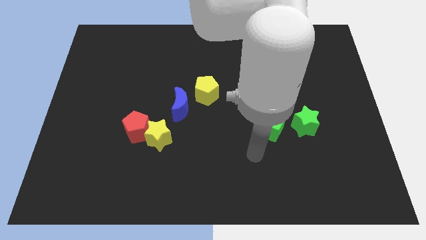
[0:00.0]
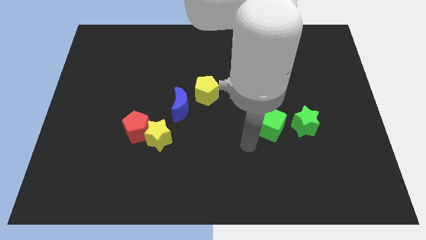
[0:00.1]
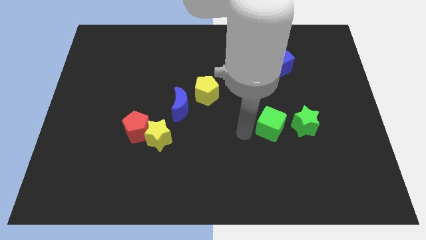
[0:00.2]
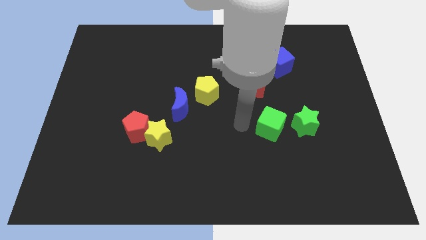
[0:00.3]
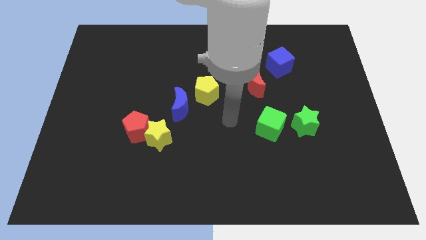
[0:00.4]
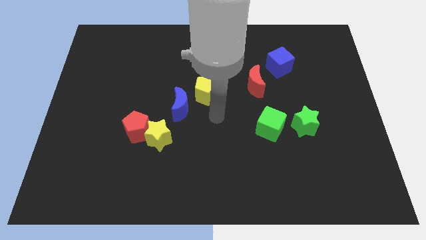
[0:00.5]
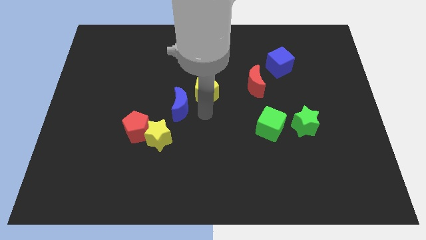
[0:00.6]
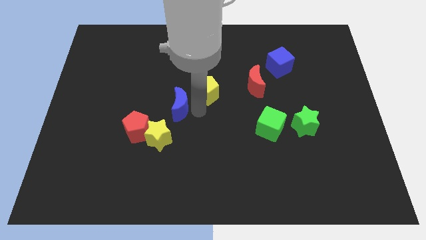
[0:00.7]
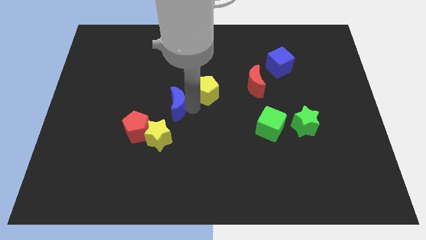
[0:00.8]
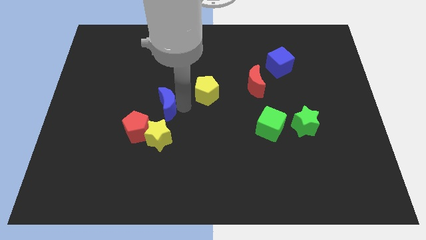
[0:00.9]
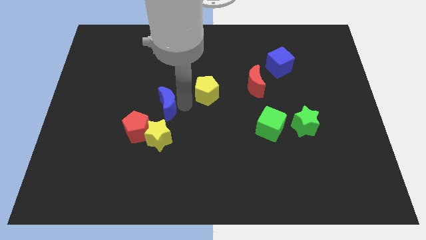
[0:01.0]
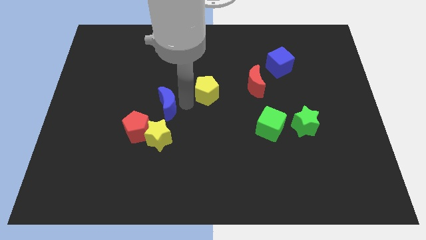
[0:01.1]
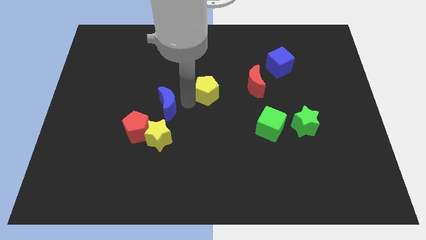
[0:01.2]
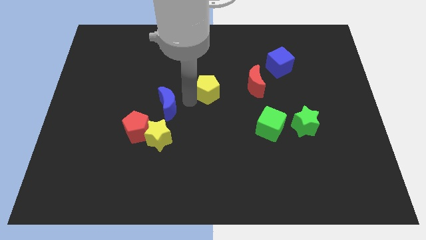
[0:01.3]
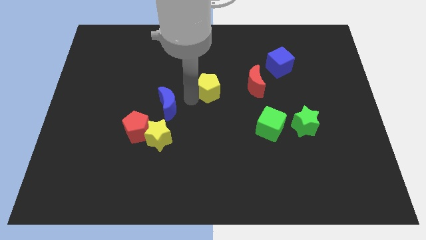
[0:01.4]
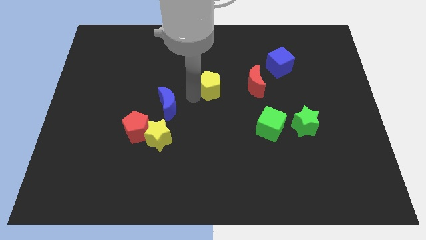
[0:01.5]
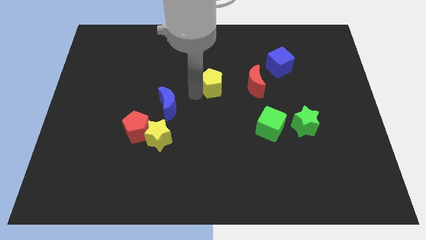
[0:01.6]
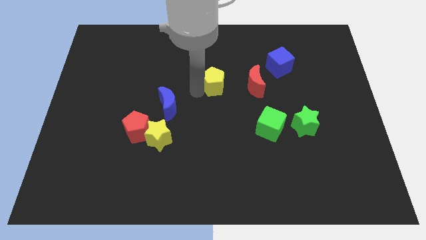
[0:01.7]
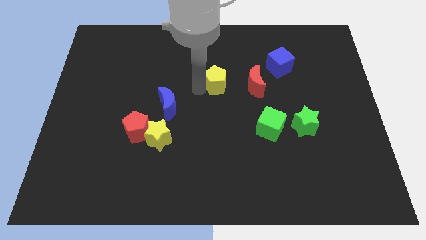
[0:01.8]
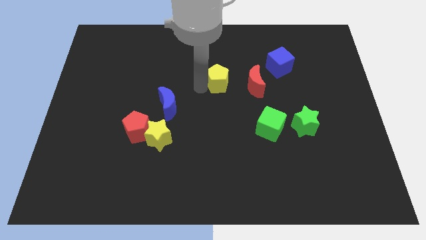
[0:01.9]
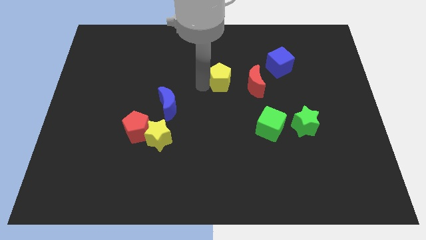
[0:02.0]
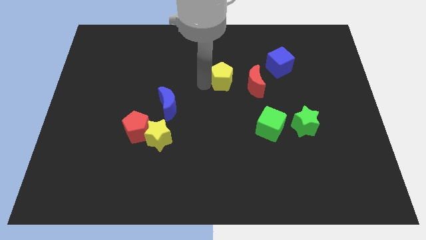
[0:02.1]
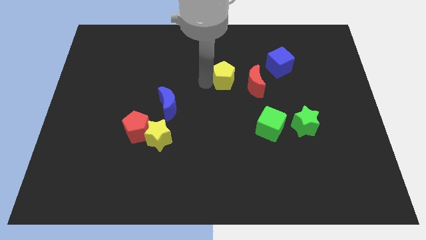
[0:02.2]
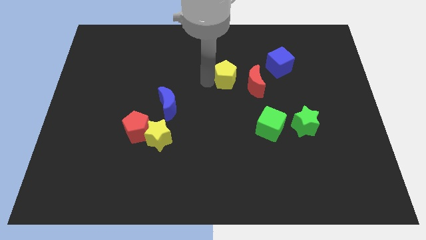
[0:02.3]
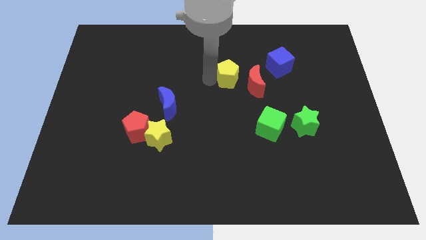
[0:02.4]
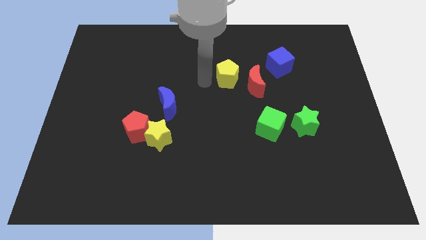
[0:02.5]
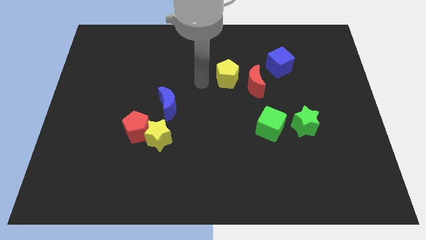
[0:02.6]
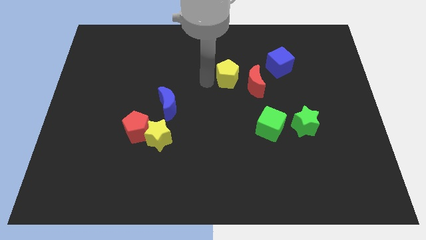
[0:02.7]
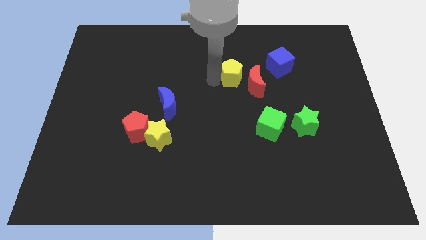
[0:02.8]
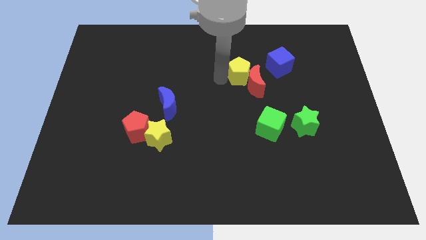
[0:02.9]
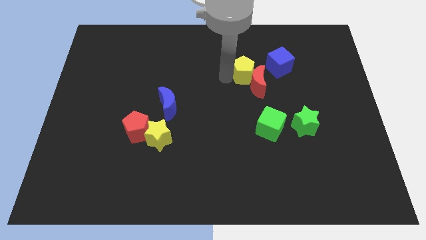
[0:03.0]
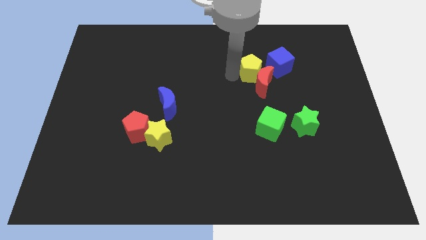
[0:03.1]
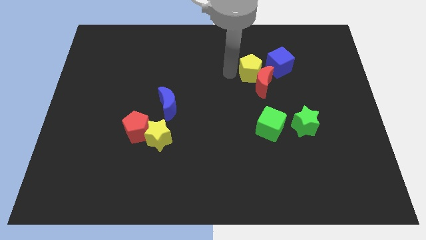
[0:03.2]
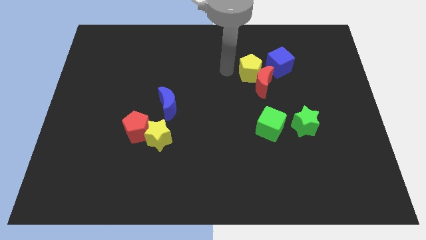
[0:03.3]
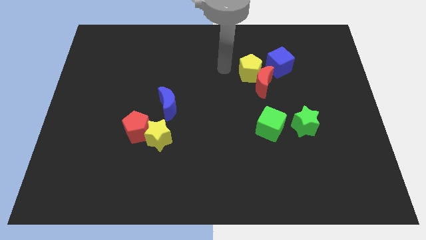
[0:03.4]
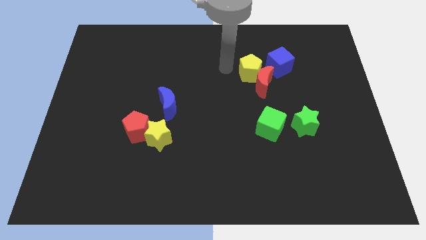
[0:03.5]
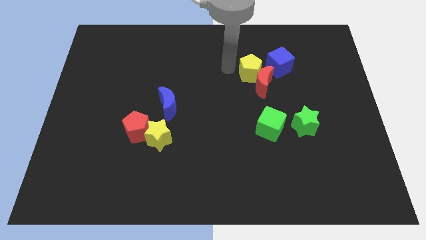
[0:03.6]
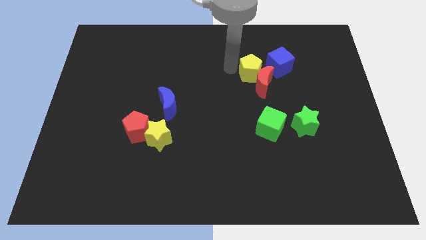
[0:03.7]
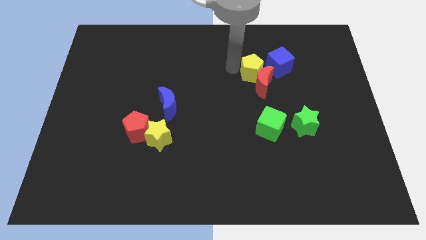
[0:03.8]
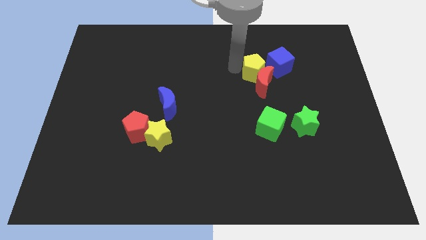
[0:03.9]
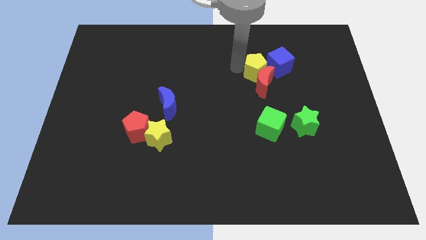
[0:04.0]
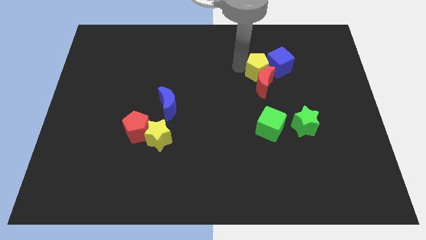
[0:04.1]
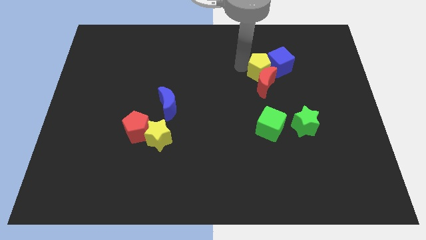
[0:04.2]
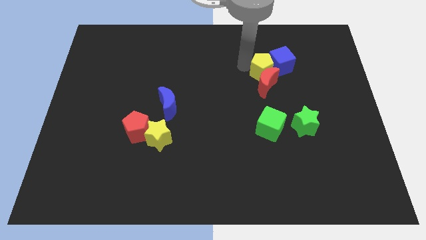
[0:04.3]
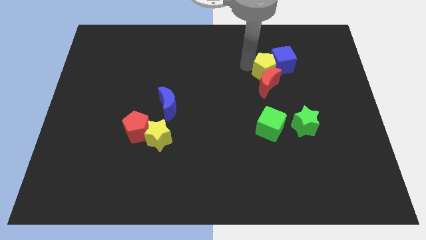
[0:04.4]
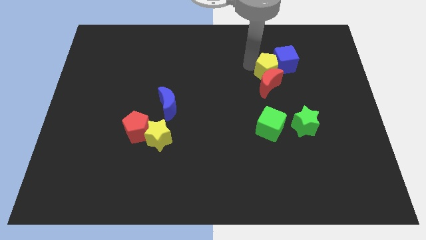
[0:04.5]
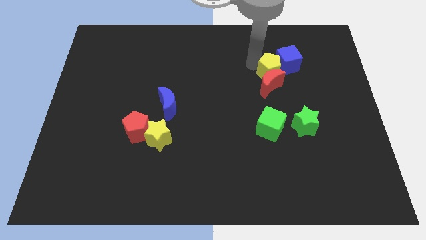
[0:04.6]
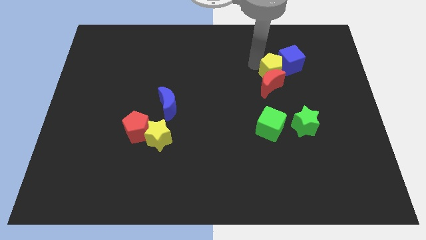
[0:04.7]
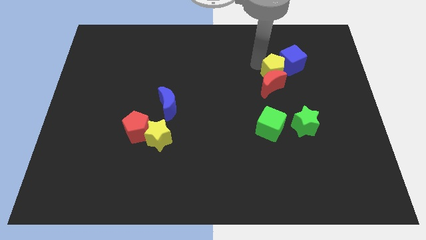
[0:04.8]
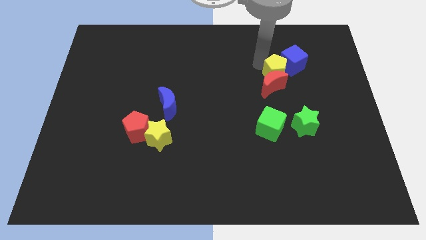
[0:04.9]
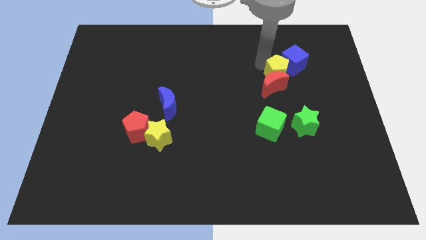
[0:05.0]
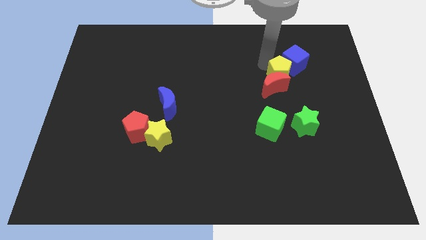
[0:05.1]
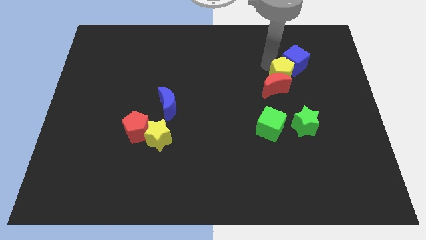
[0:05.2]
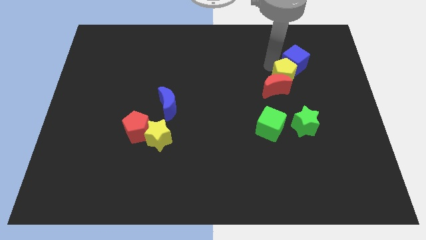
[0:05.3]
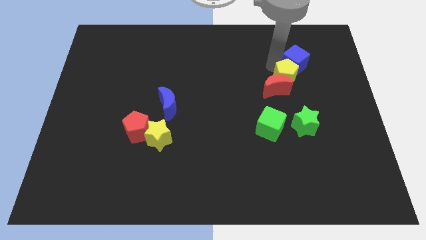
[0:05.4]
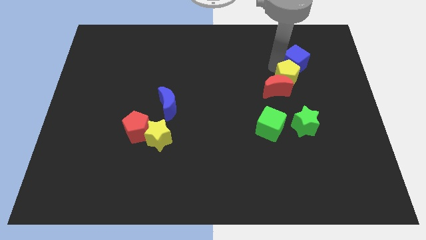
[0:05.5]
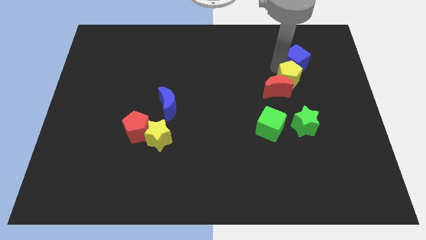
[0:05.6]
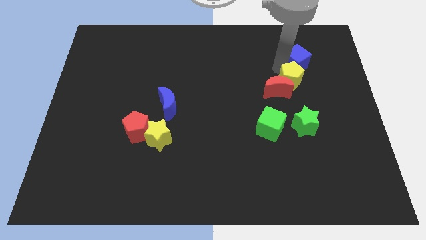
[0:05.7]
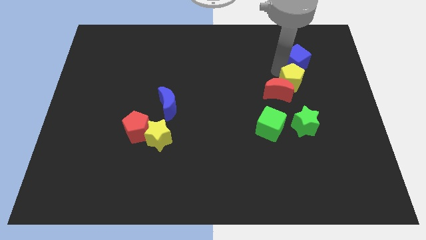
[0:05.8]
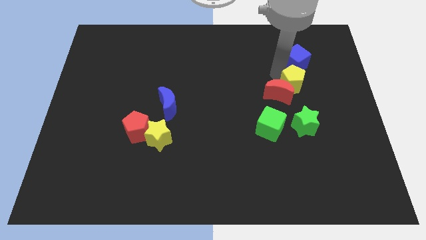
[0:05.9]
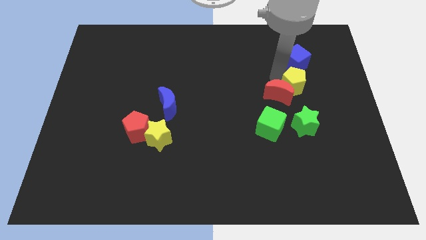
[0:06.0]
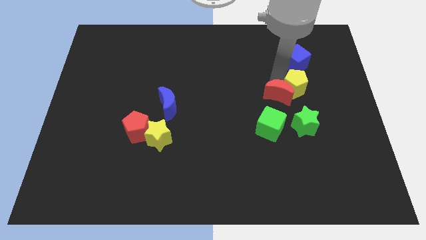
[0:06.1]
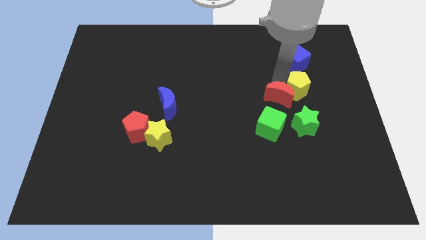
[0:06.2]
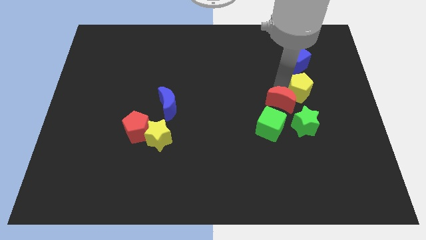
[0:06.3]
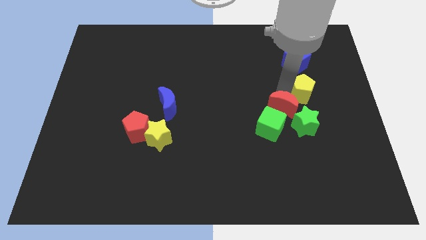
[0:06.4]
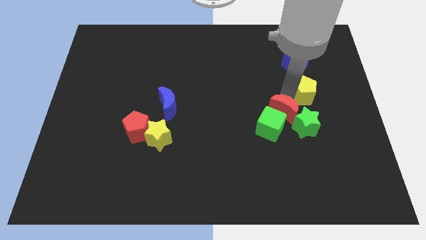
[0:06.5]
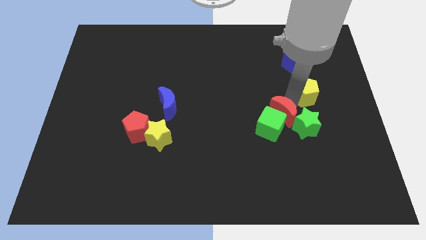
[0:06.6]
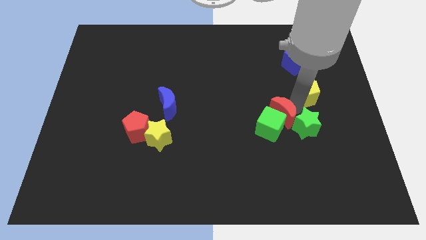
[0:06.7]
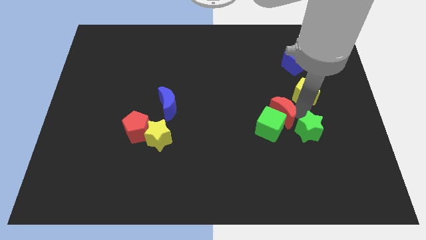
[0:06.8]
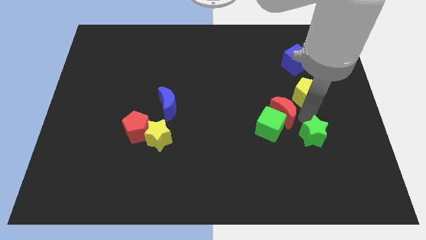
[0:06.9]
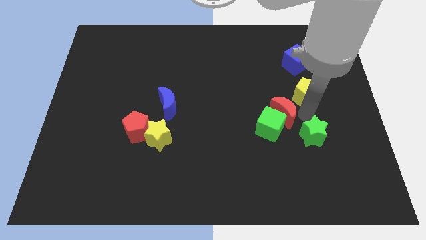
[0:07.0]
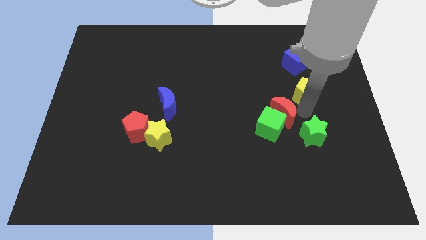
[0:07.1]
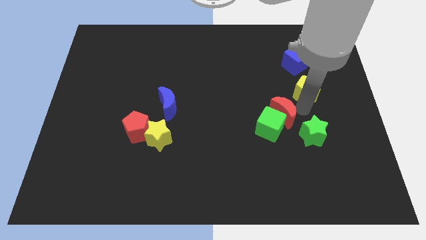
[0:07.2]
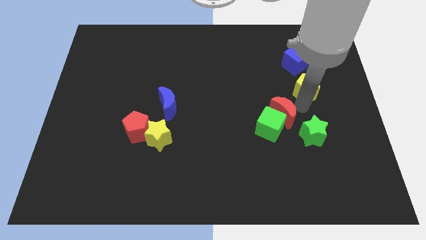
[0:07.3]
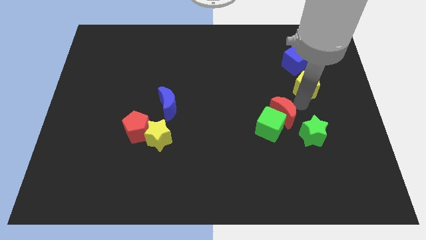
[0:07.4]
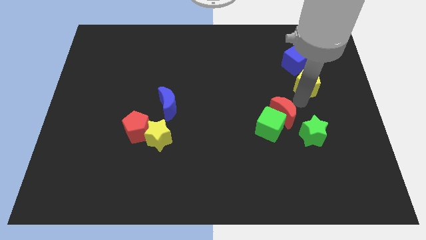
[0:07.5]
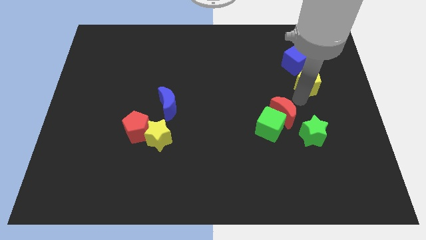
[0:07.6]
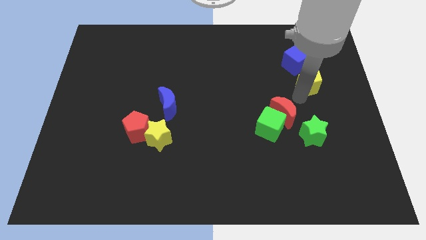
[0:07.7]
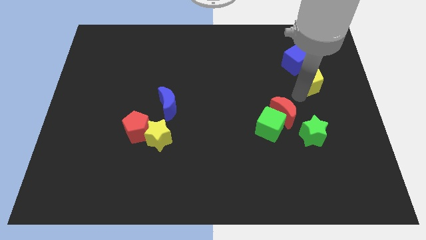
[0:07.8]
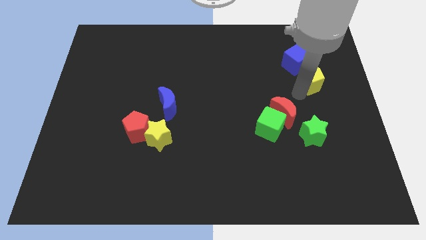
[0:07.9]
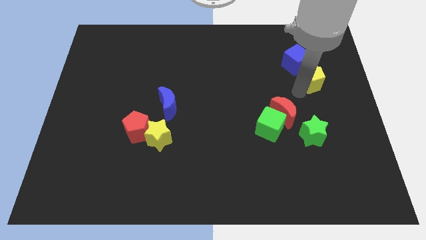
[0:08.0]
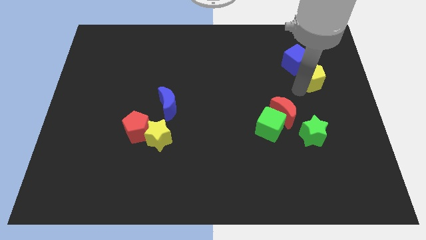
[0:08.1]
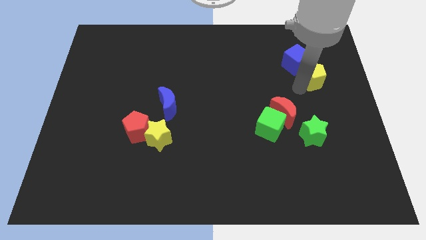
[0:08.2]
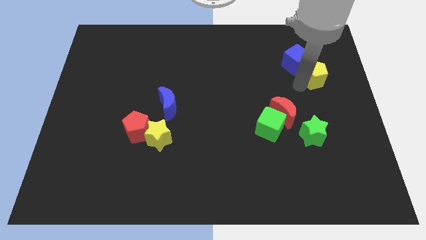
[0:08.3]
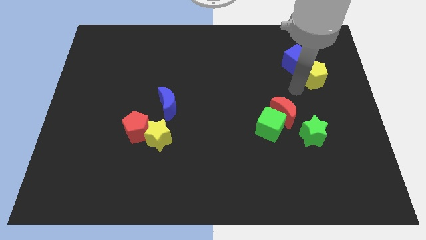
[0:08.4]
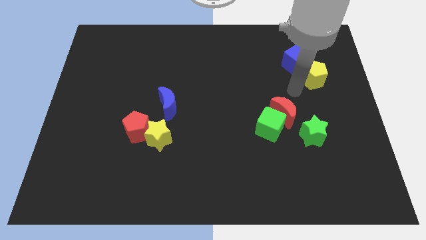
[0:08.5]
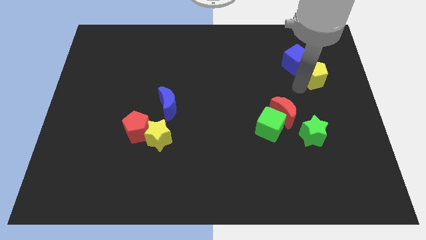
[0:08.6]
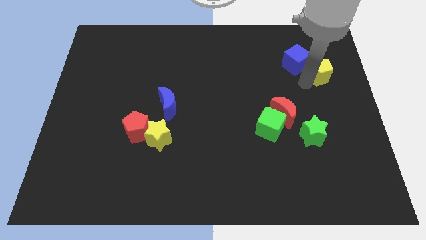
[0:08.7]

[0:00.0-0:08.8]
move the yellow pentagon to the right side of the blue cube
